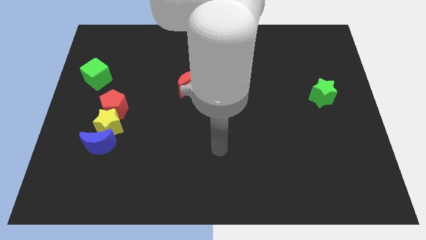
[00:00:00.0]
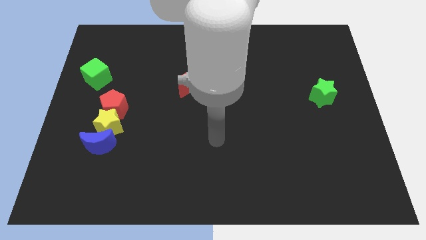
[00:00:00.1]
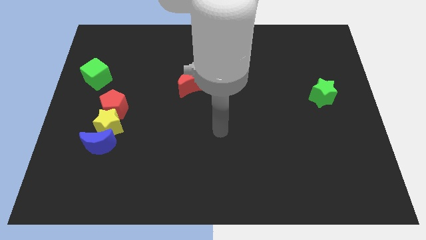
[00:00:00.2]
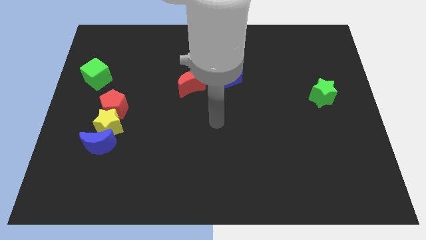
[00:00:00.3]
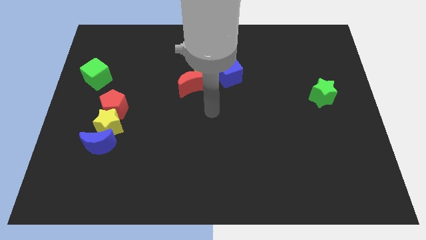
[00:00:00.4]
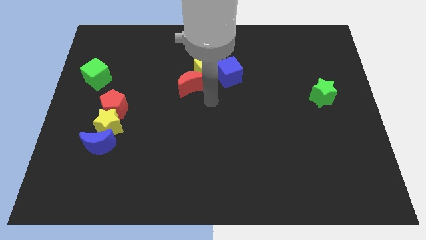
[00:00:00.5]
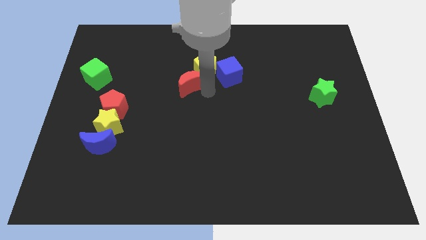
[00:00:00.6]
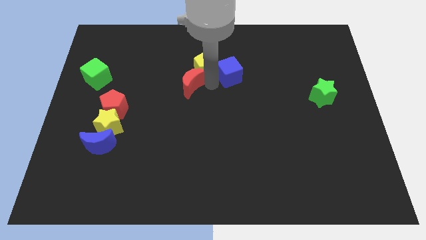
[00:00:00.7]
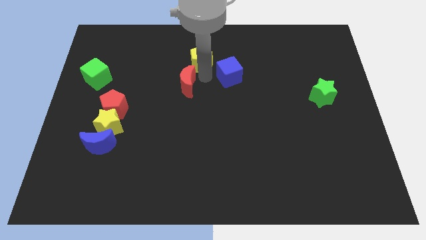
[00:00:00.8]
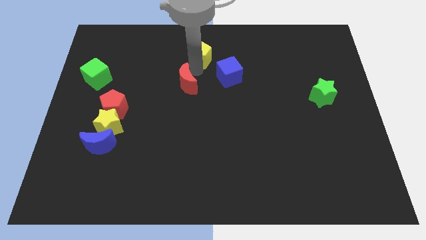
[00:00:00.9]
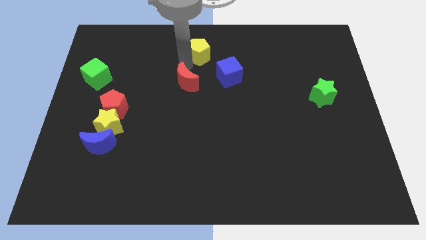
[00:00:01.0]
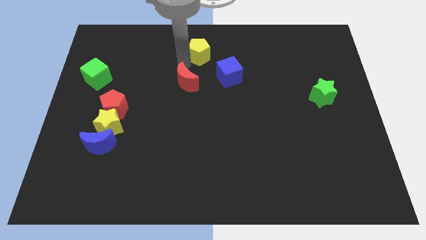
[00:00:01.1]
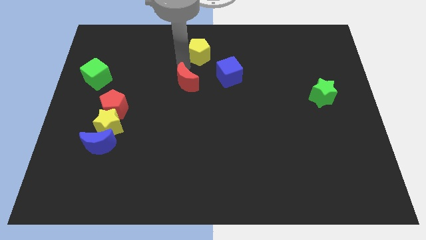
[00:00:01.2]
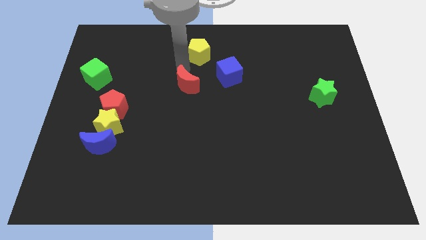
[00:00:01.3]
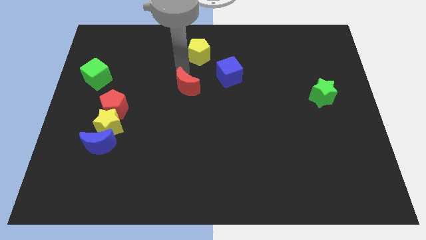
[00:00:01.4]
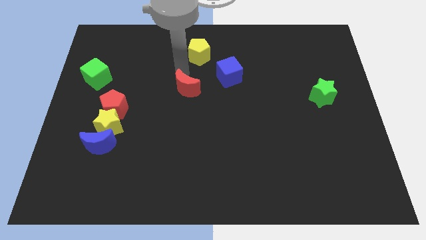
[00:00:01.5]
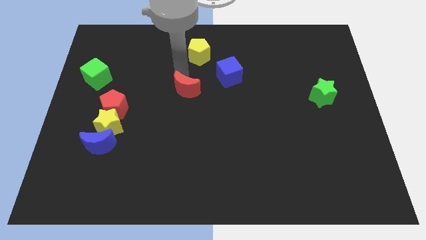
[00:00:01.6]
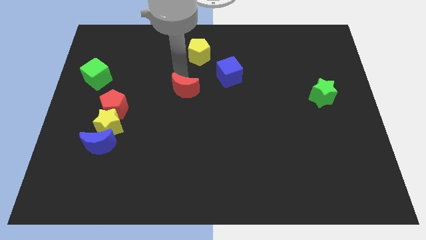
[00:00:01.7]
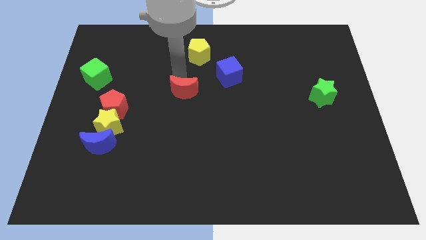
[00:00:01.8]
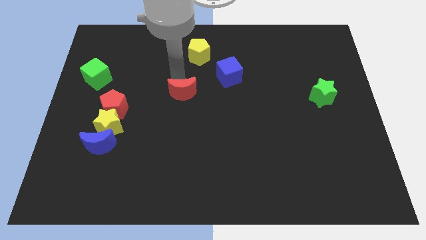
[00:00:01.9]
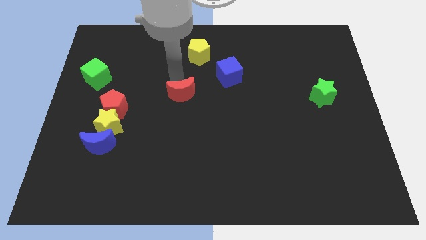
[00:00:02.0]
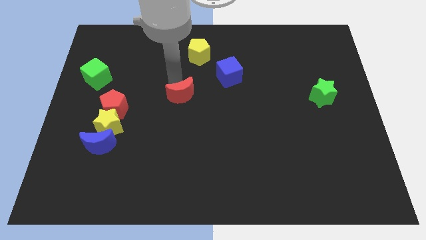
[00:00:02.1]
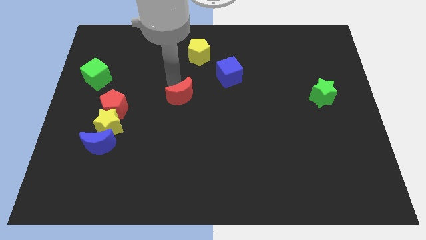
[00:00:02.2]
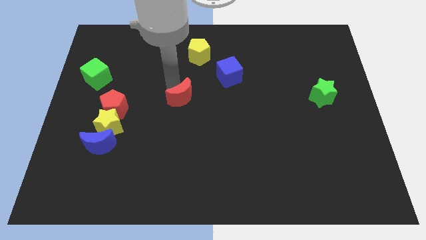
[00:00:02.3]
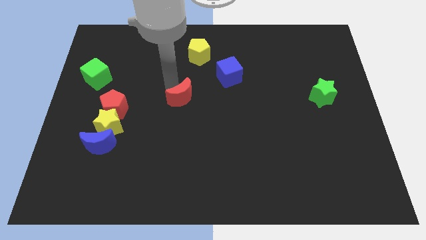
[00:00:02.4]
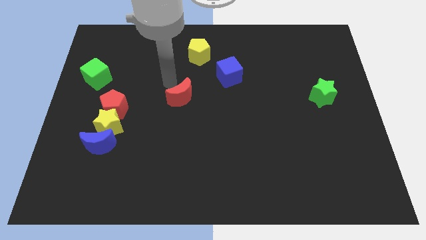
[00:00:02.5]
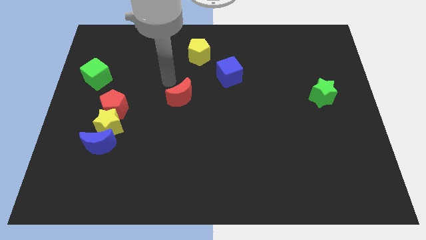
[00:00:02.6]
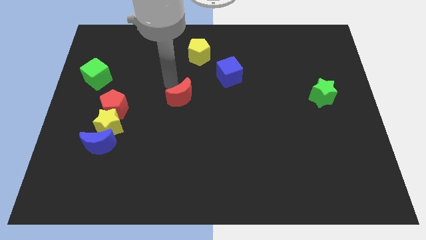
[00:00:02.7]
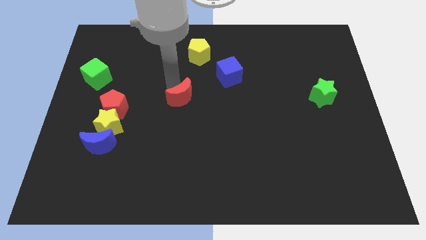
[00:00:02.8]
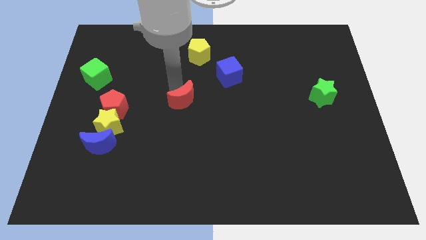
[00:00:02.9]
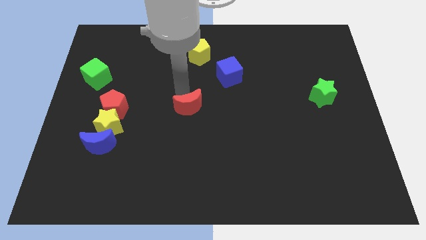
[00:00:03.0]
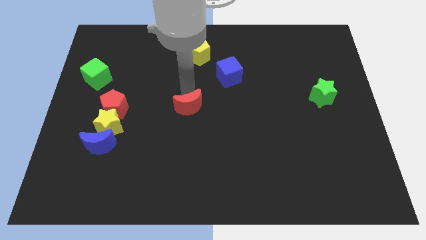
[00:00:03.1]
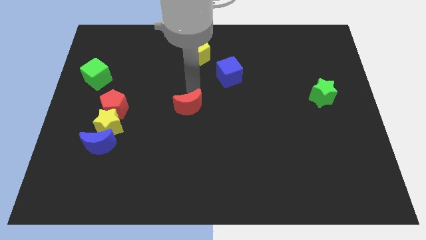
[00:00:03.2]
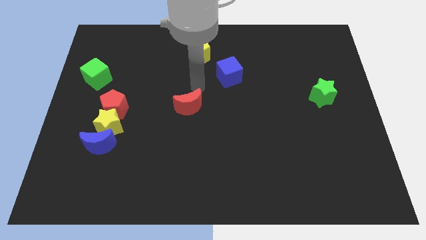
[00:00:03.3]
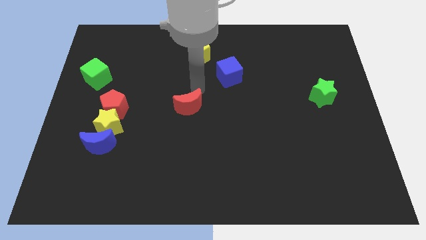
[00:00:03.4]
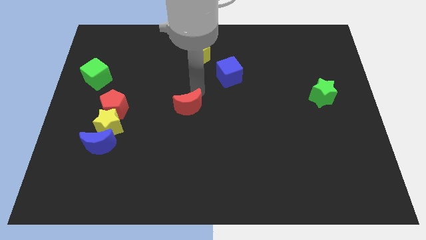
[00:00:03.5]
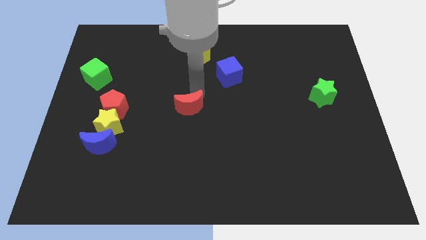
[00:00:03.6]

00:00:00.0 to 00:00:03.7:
slide the red moon down slightly

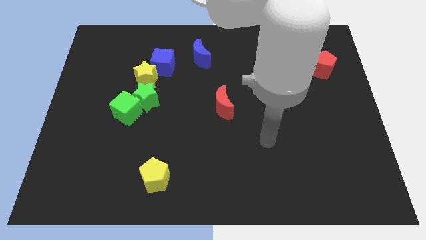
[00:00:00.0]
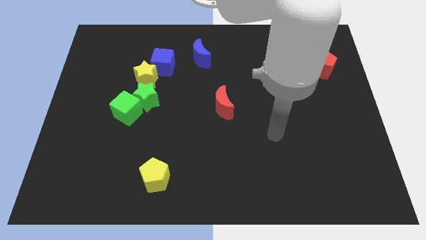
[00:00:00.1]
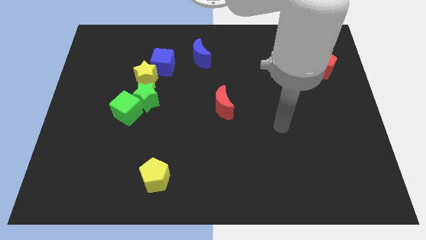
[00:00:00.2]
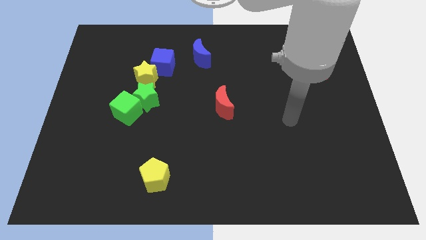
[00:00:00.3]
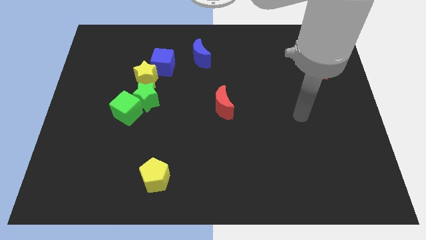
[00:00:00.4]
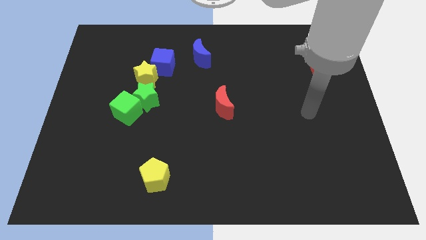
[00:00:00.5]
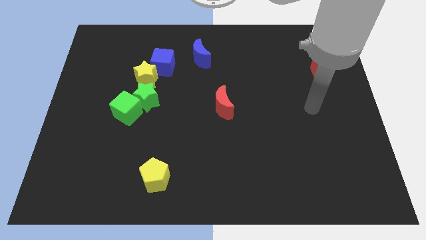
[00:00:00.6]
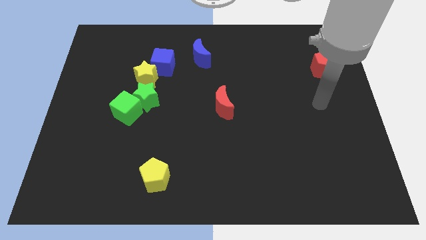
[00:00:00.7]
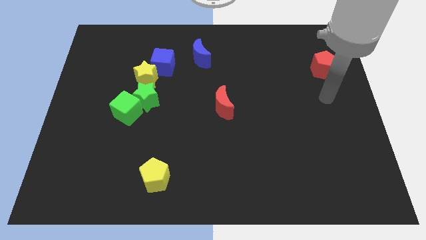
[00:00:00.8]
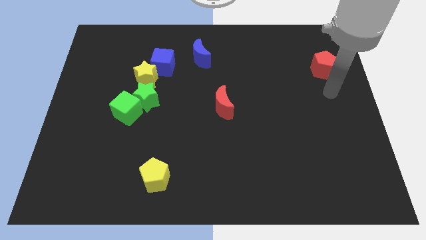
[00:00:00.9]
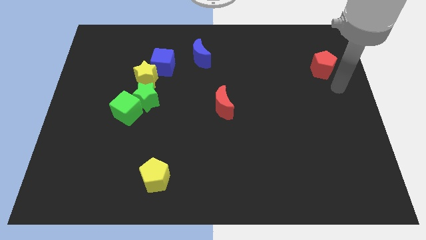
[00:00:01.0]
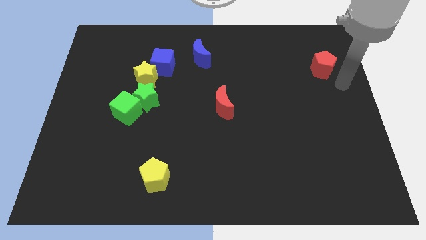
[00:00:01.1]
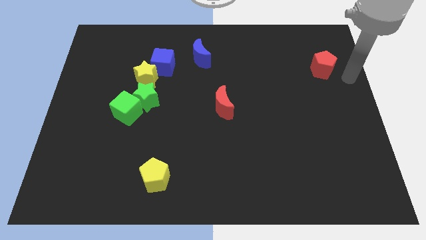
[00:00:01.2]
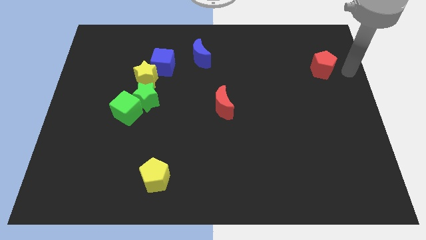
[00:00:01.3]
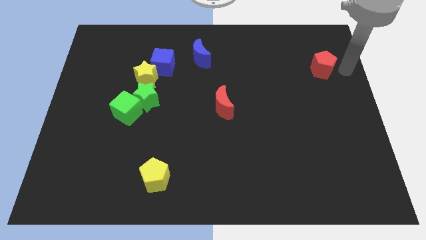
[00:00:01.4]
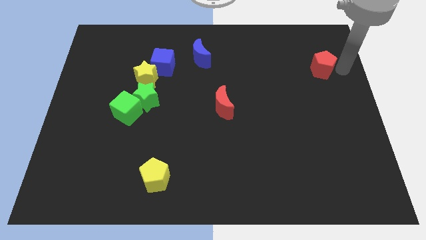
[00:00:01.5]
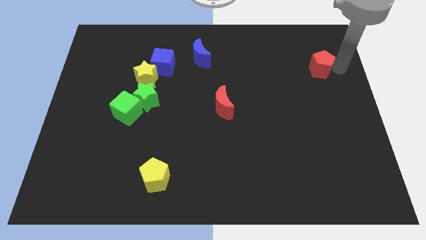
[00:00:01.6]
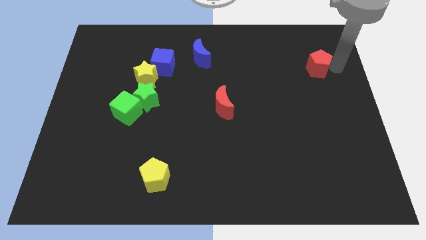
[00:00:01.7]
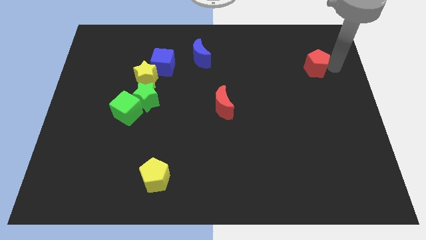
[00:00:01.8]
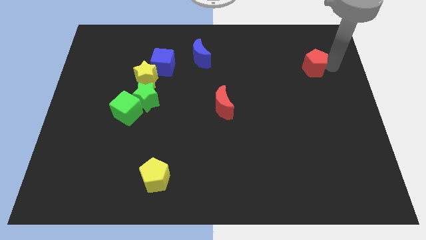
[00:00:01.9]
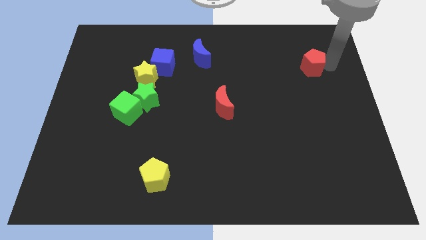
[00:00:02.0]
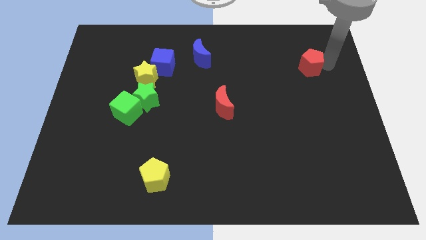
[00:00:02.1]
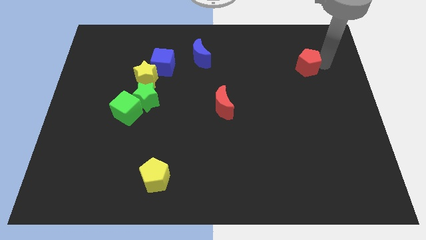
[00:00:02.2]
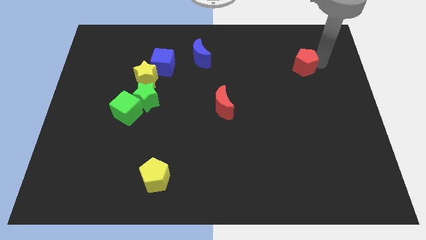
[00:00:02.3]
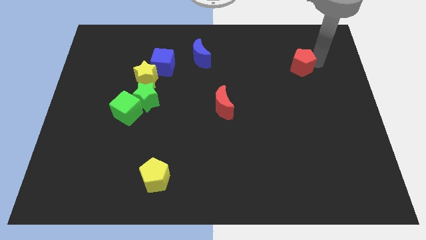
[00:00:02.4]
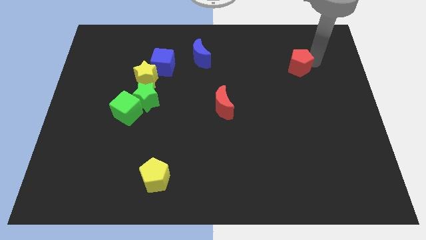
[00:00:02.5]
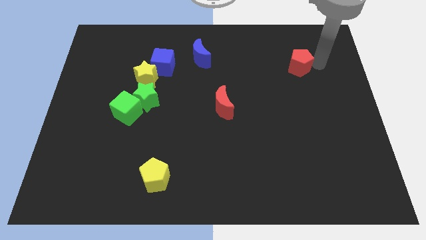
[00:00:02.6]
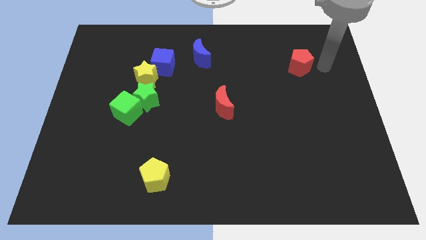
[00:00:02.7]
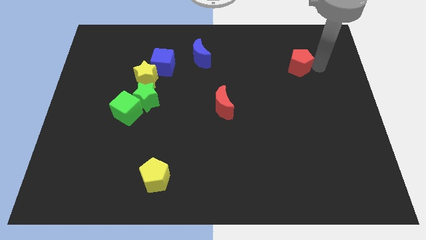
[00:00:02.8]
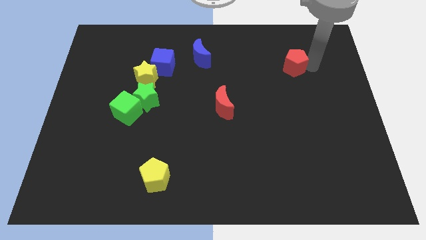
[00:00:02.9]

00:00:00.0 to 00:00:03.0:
slide the red pentagon left a little bit

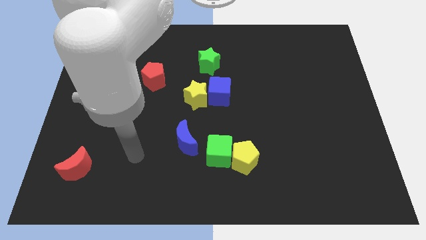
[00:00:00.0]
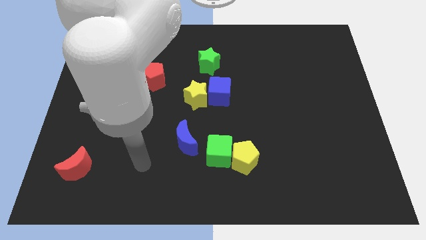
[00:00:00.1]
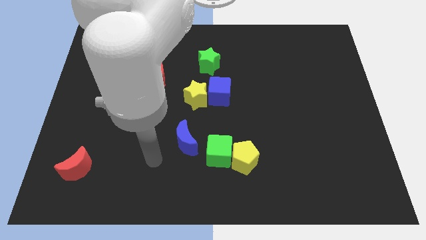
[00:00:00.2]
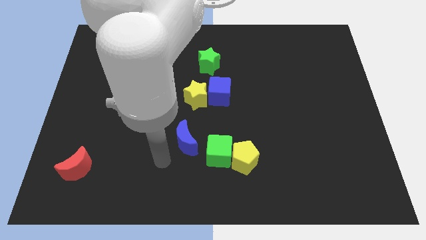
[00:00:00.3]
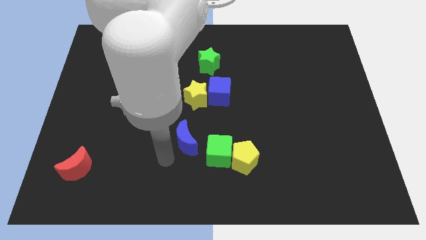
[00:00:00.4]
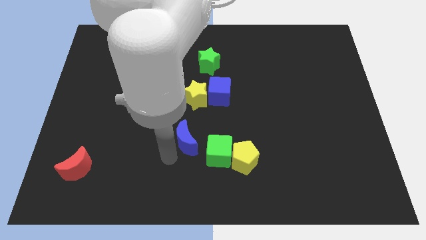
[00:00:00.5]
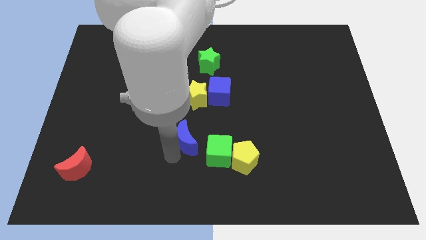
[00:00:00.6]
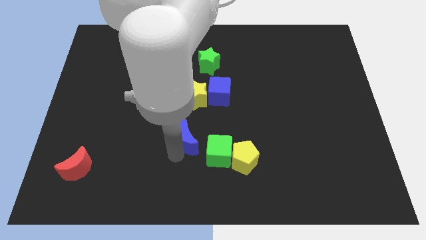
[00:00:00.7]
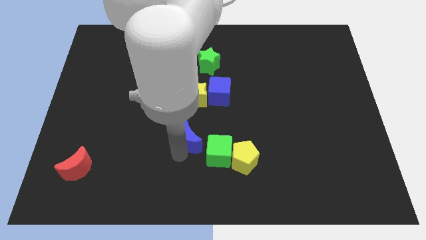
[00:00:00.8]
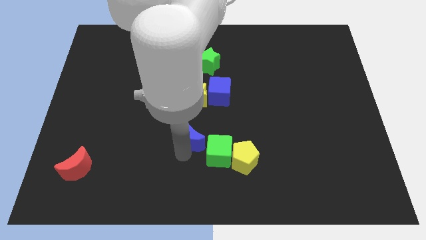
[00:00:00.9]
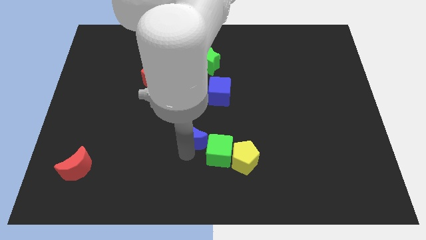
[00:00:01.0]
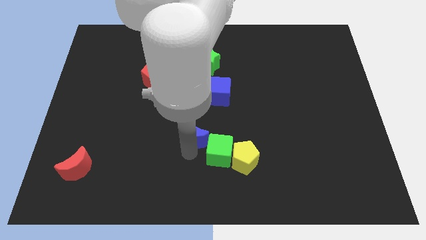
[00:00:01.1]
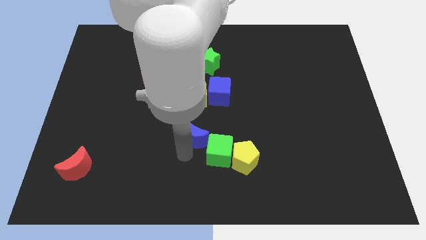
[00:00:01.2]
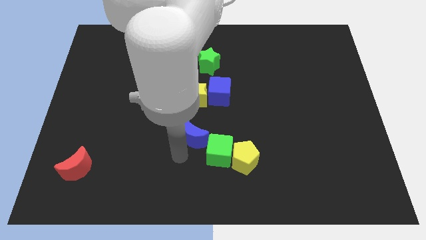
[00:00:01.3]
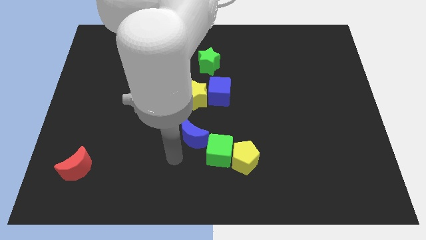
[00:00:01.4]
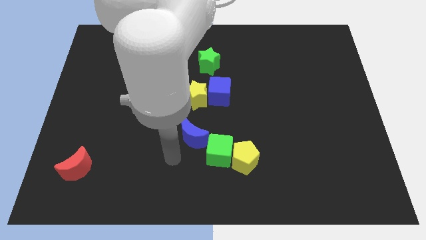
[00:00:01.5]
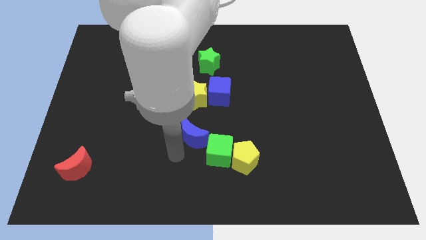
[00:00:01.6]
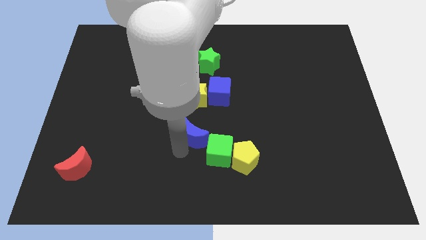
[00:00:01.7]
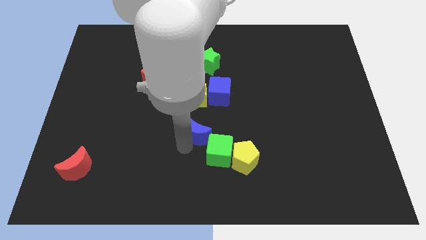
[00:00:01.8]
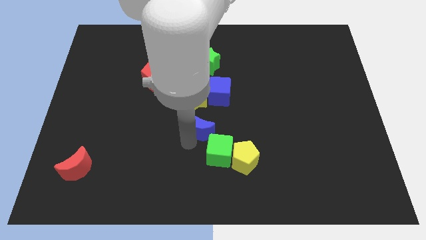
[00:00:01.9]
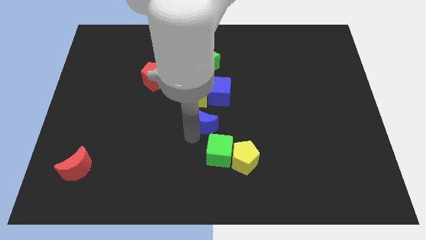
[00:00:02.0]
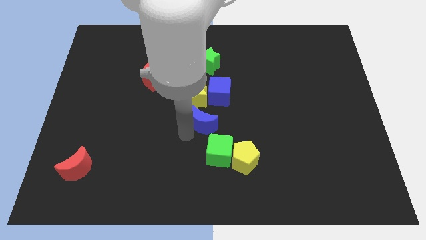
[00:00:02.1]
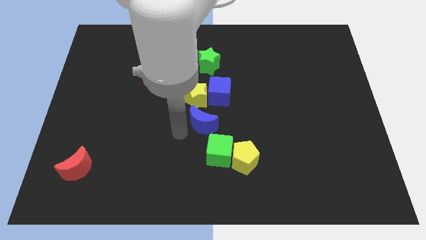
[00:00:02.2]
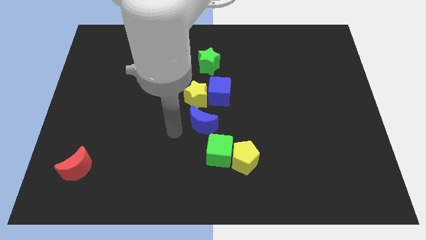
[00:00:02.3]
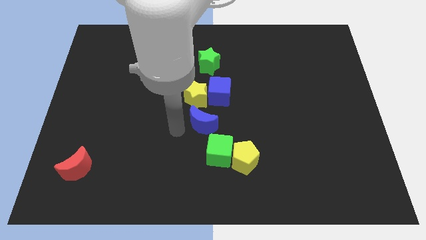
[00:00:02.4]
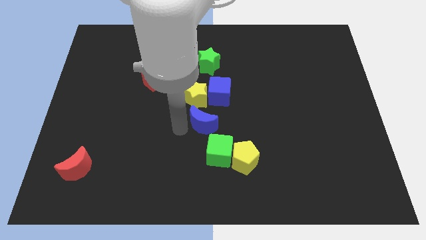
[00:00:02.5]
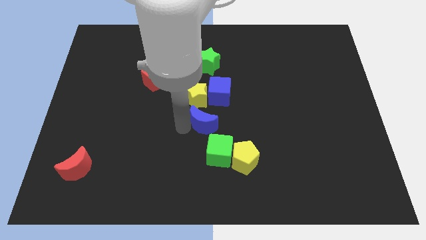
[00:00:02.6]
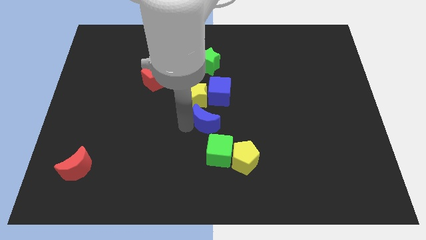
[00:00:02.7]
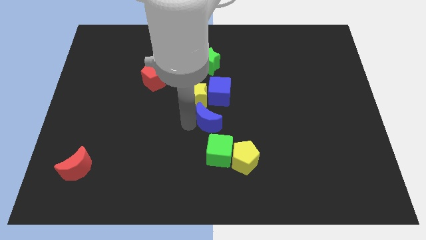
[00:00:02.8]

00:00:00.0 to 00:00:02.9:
slightly move the blue moon diagonally up and right
